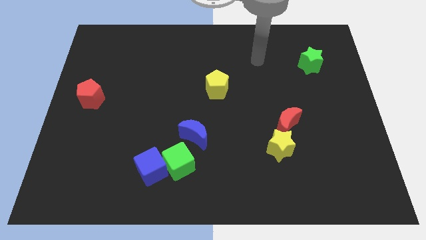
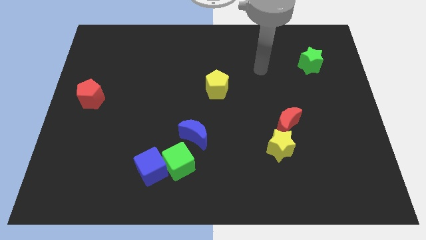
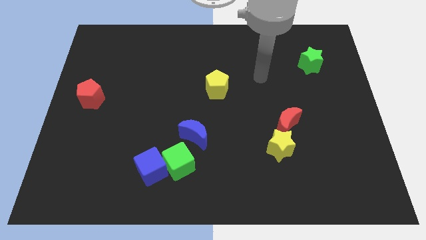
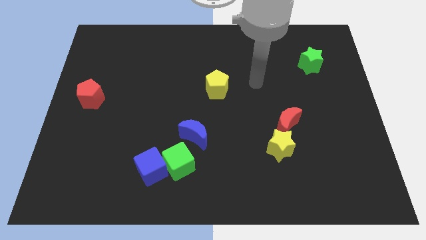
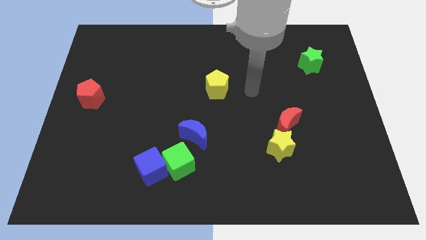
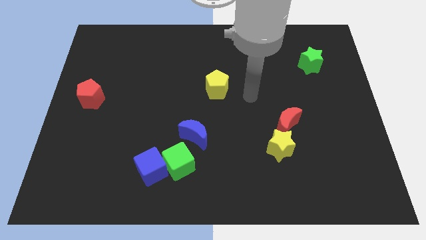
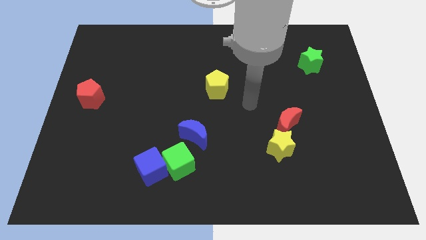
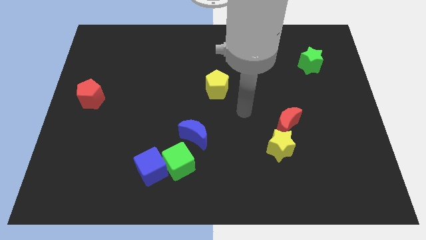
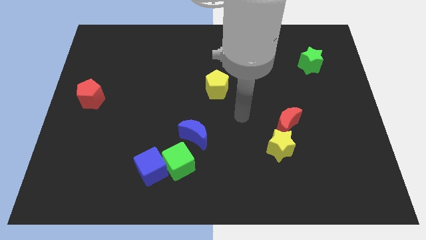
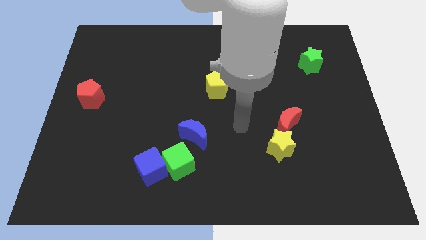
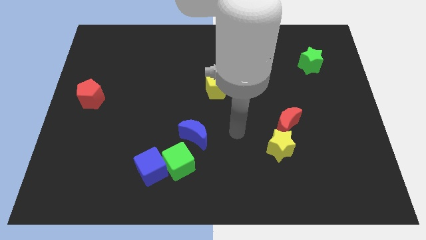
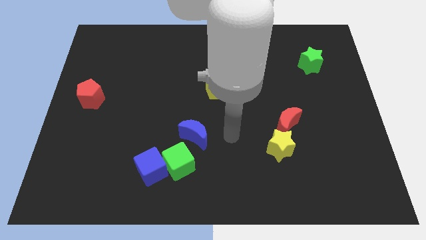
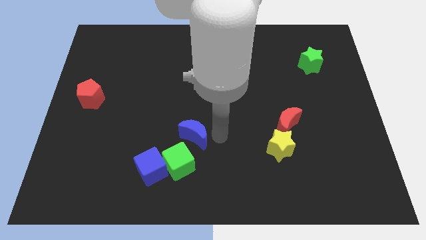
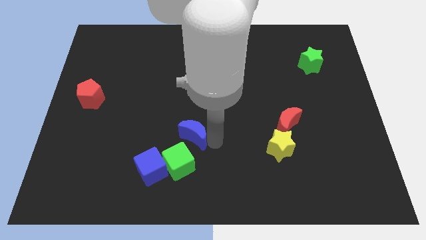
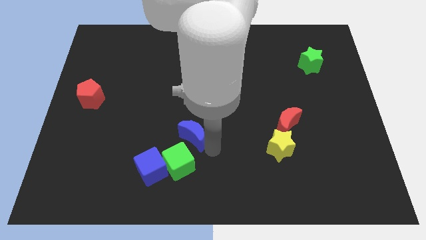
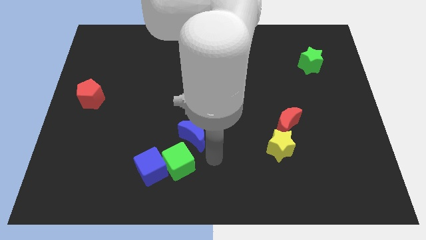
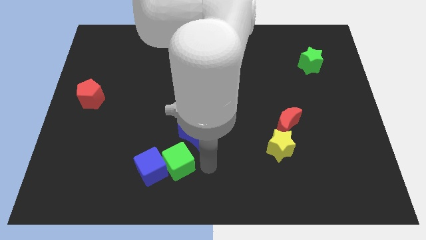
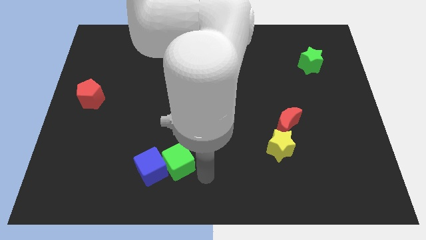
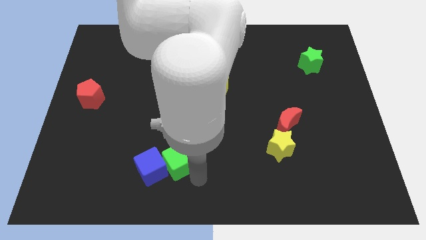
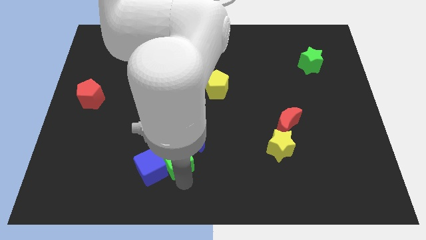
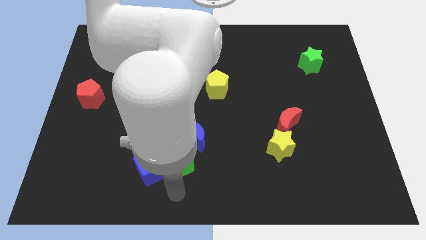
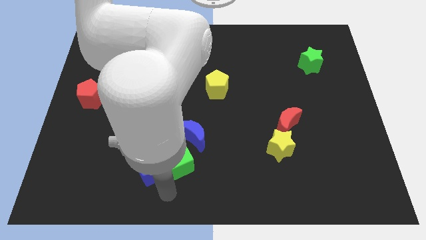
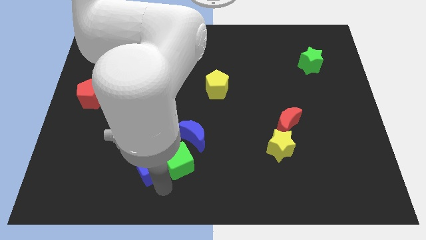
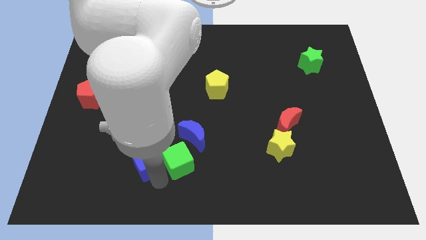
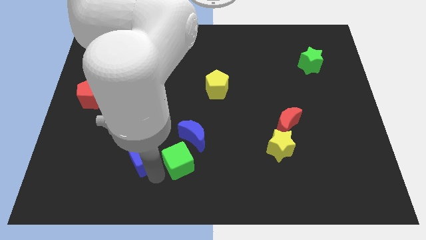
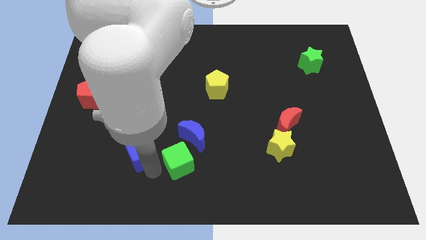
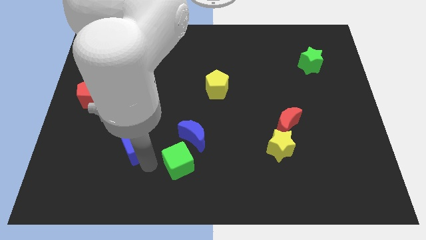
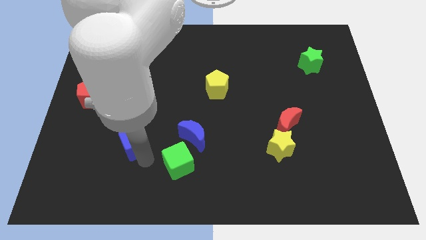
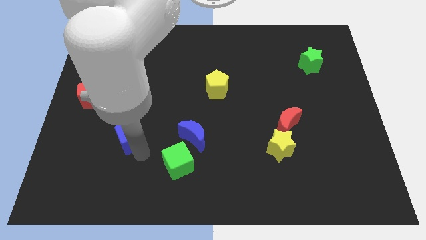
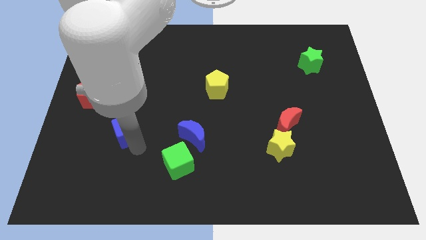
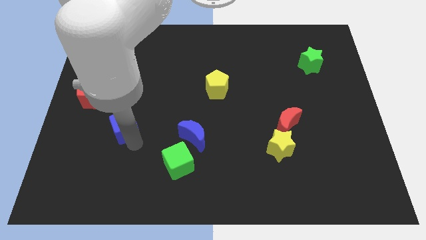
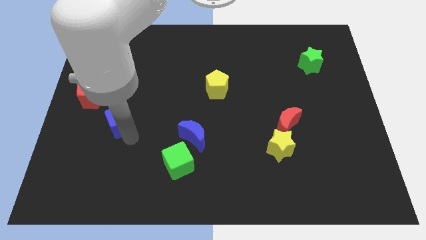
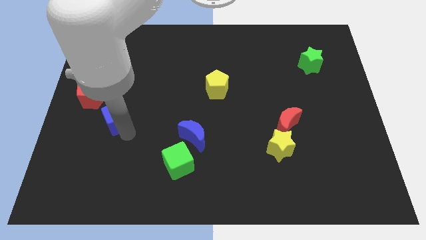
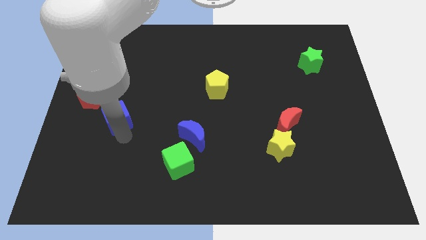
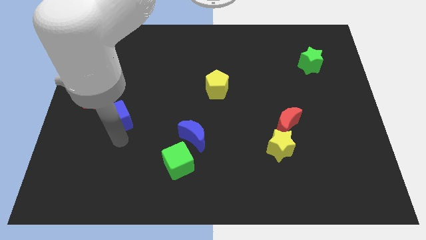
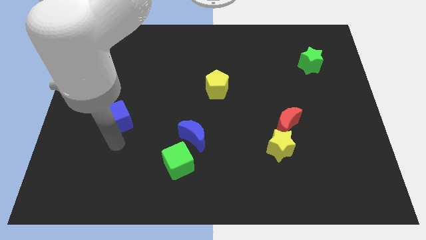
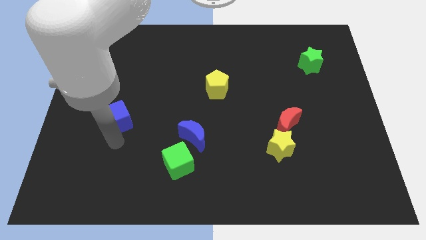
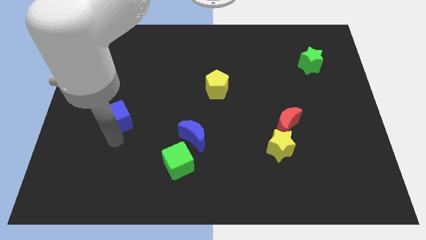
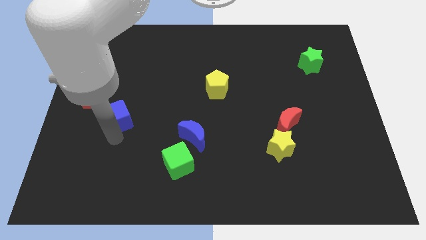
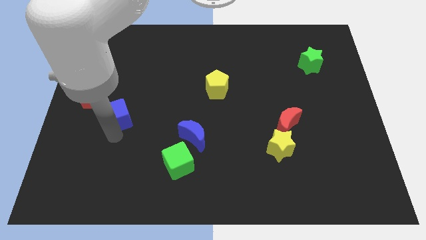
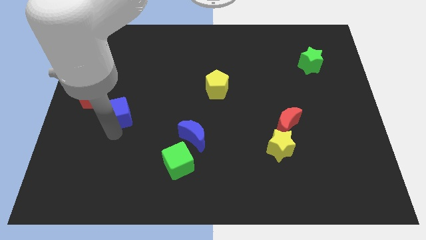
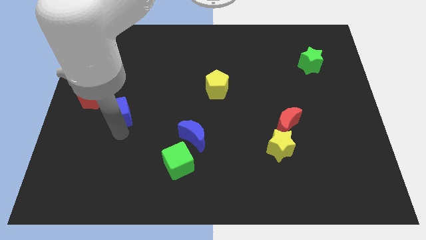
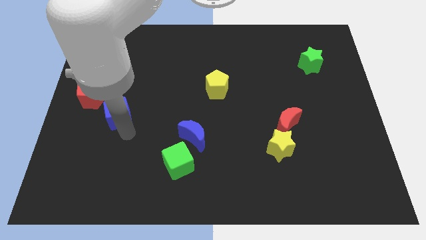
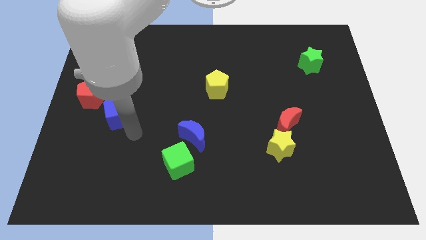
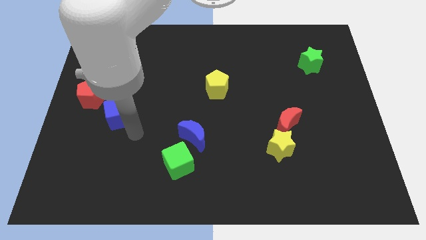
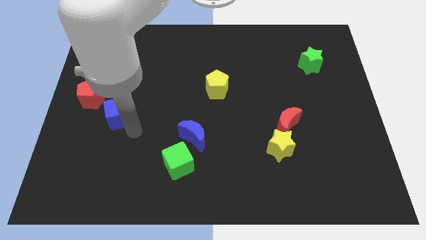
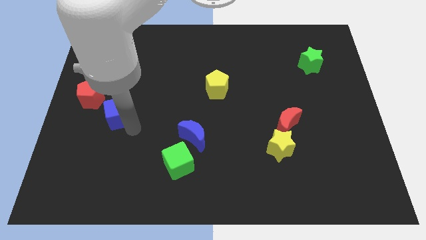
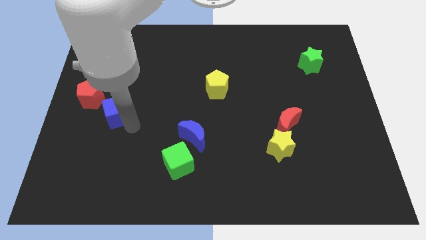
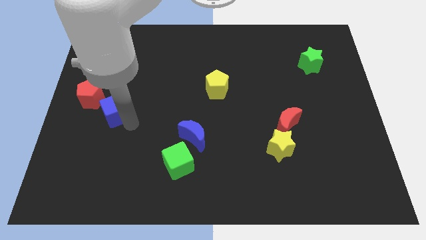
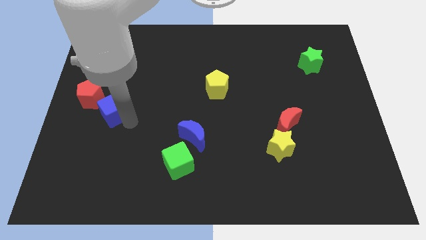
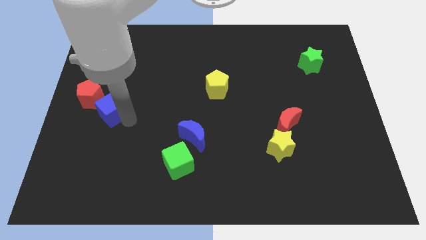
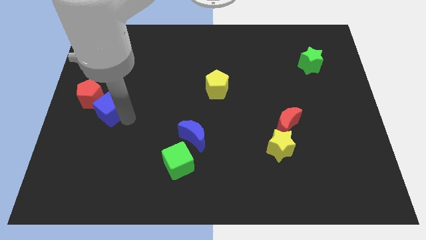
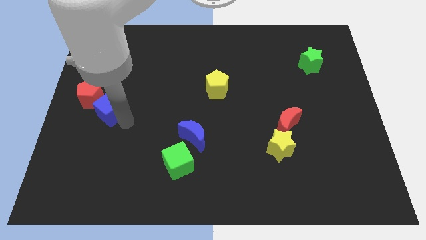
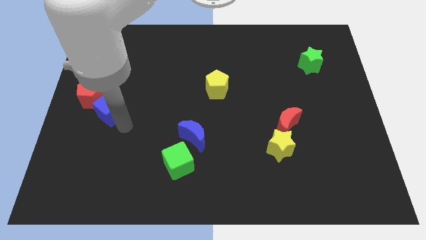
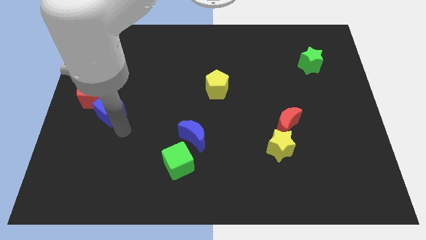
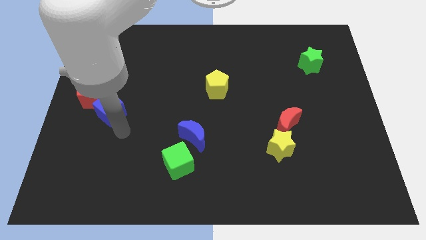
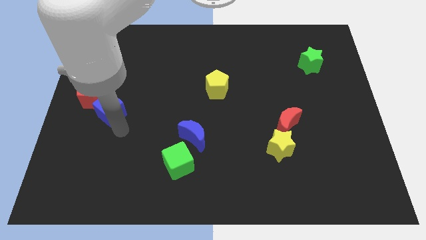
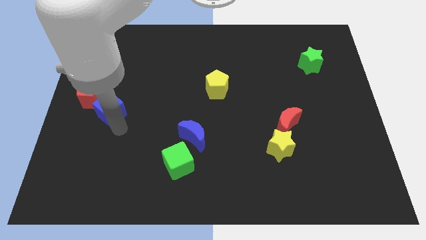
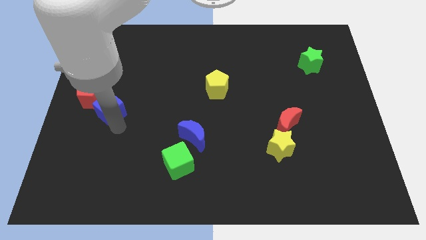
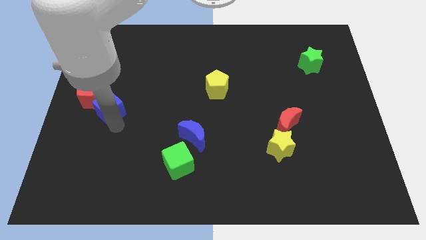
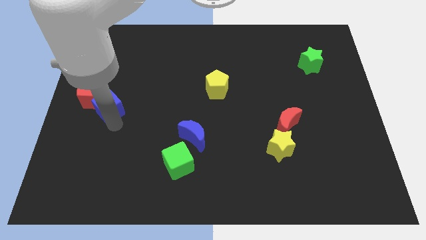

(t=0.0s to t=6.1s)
push the blue cube to the red pentagon

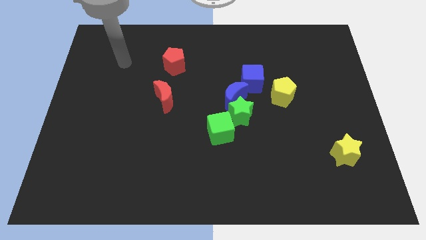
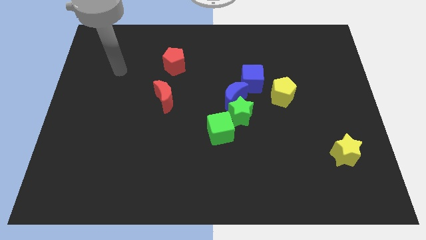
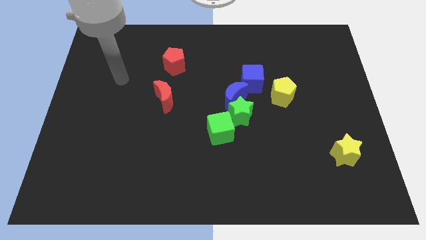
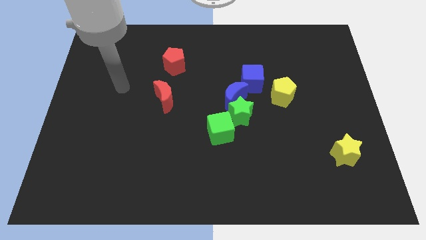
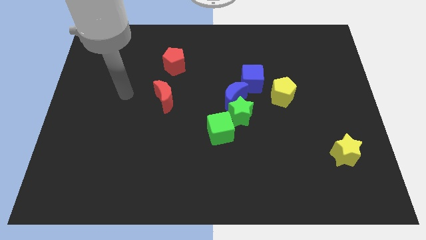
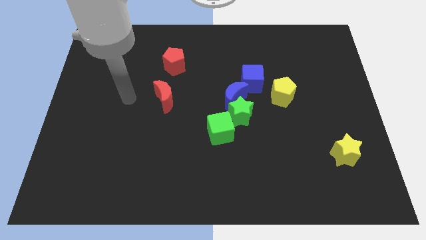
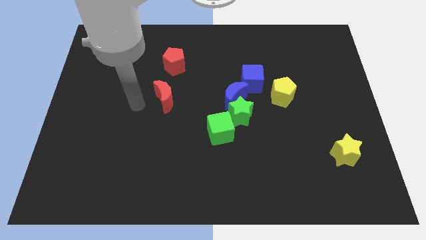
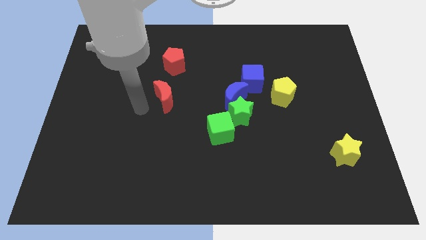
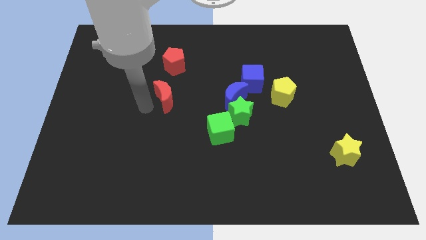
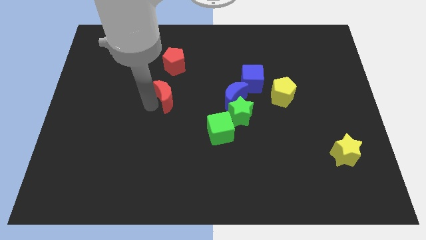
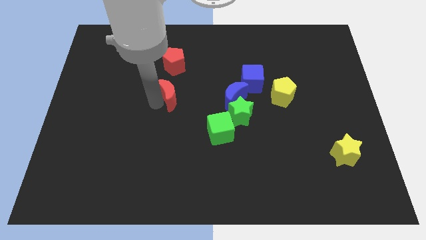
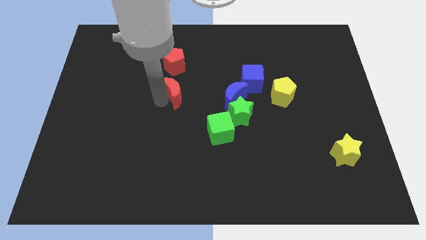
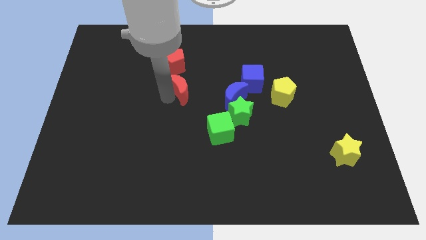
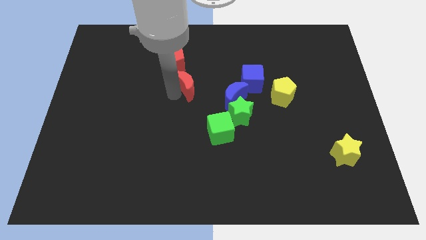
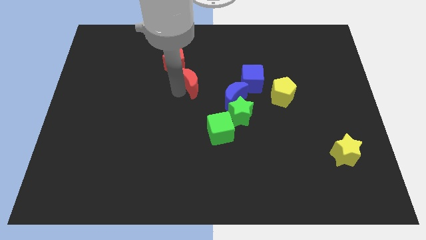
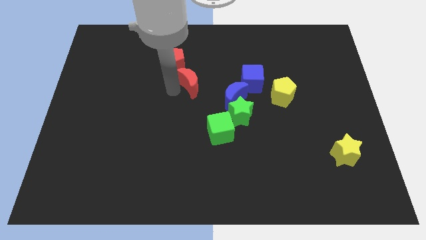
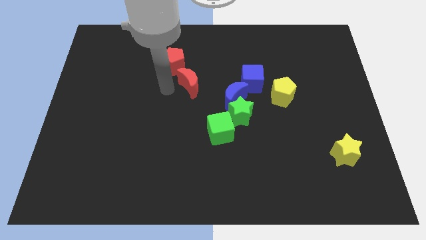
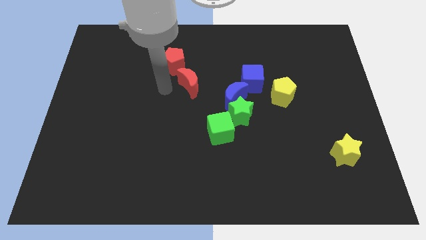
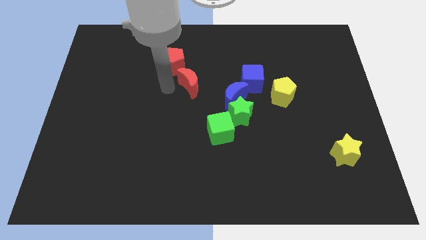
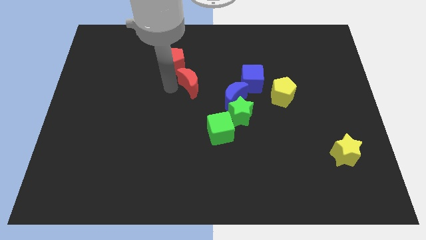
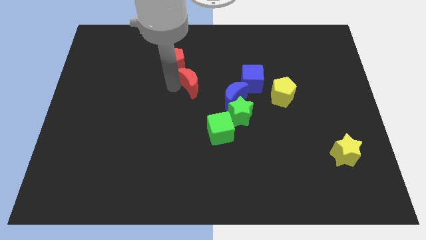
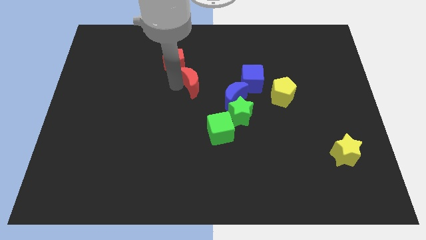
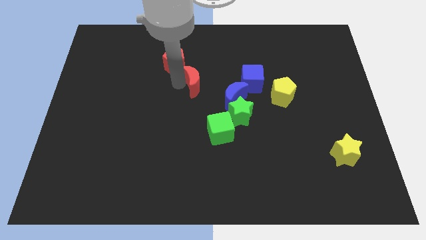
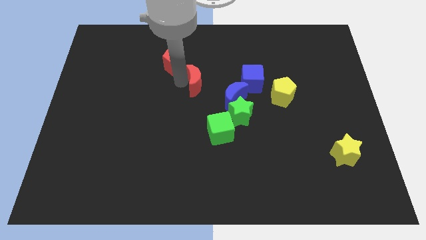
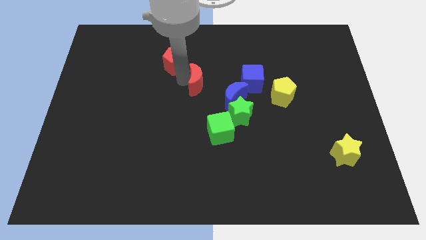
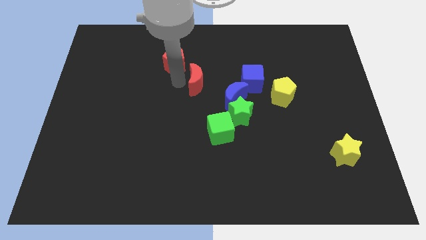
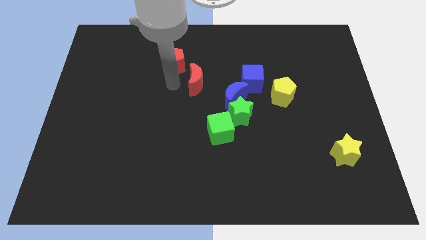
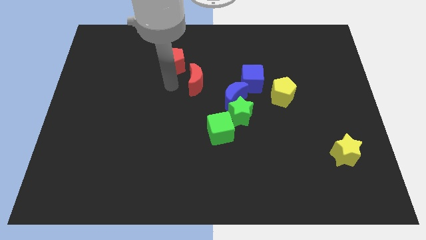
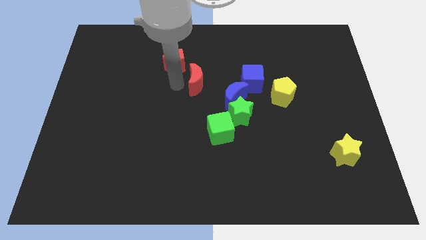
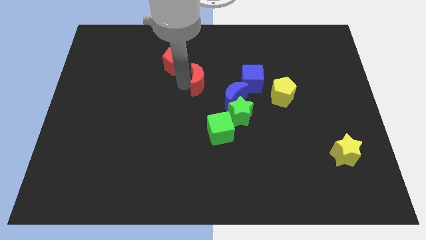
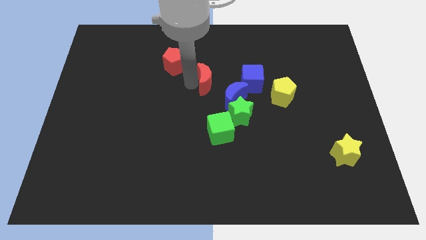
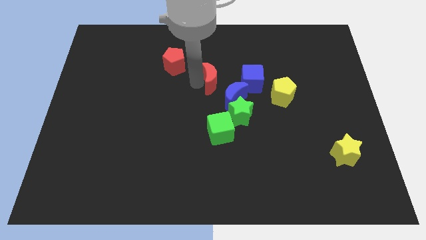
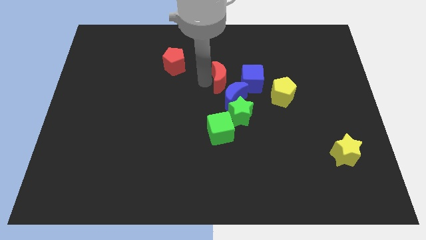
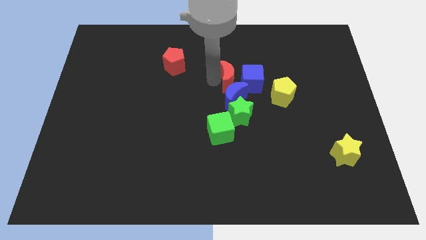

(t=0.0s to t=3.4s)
put the red moon close to the blue cube
